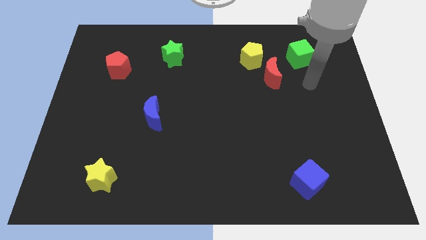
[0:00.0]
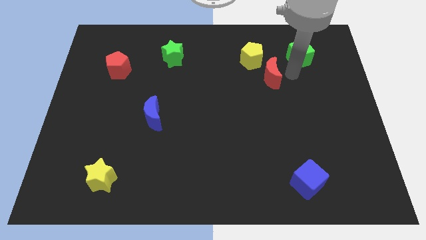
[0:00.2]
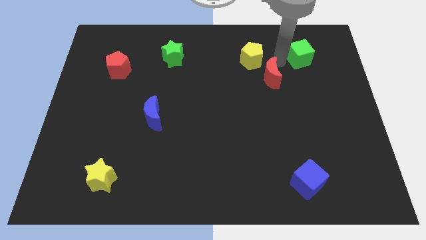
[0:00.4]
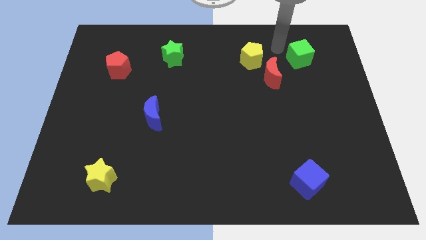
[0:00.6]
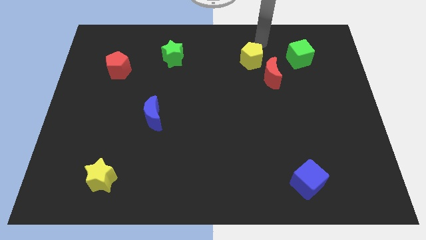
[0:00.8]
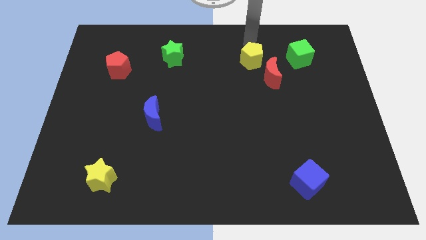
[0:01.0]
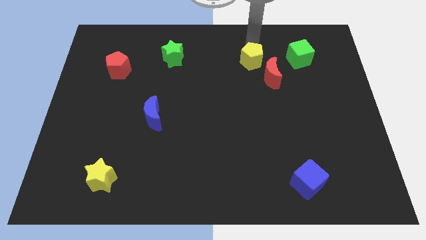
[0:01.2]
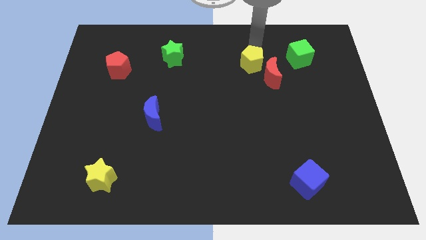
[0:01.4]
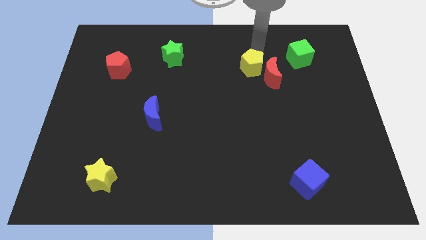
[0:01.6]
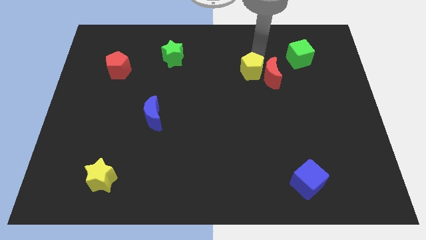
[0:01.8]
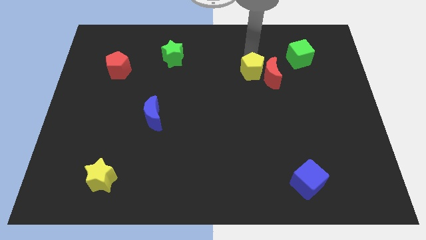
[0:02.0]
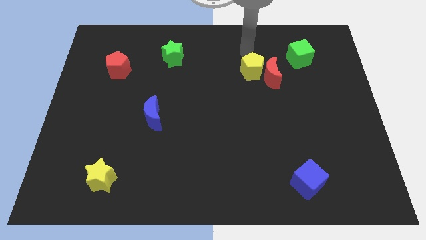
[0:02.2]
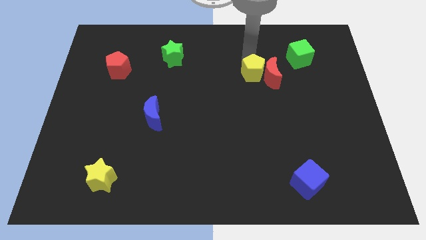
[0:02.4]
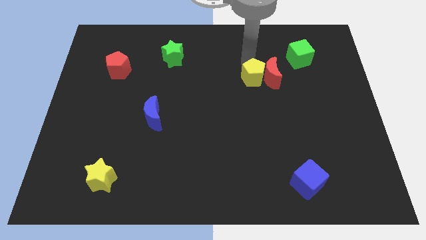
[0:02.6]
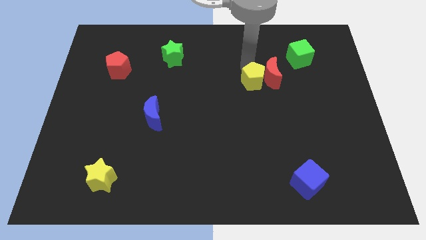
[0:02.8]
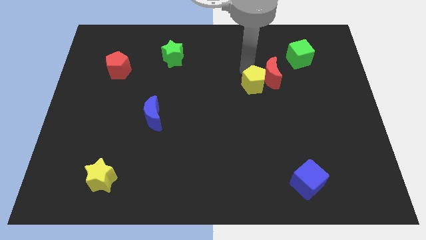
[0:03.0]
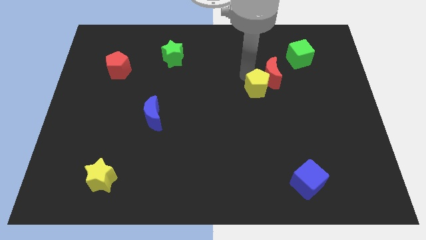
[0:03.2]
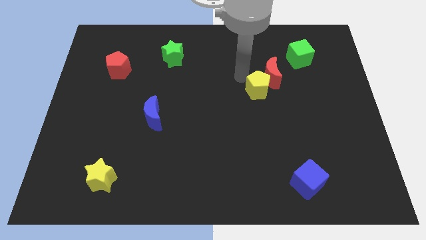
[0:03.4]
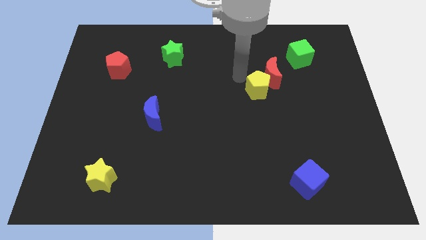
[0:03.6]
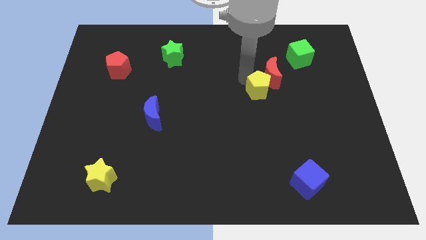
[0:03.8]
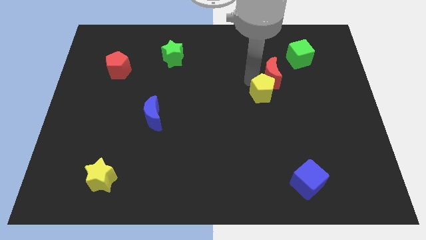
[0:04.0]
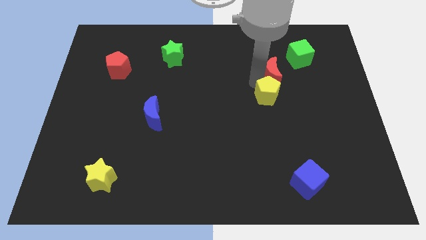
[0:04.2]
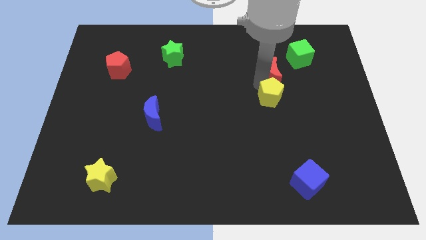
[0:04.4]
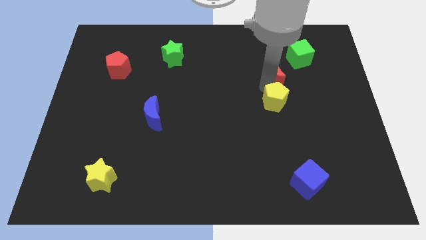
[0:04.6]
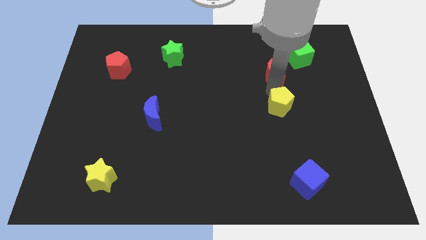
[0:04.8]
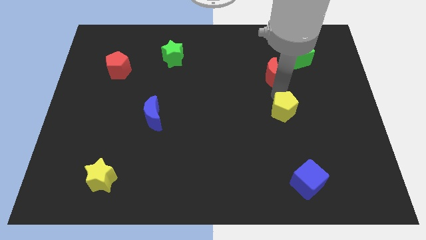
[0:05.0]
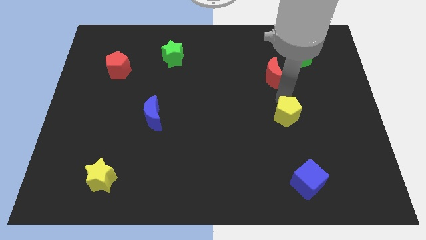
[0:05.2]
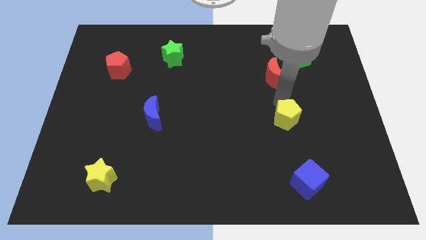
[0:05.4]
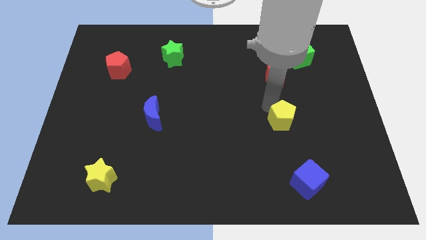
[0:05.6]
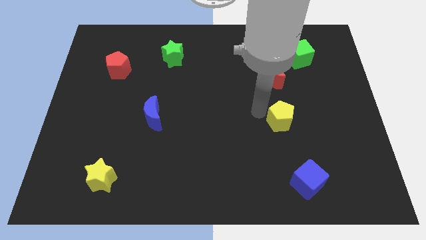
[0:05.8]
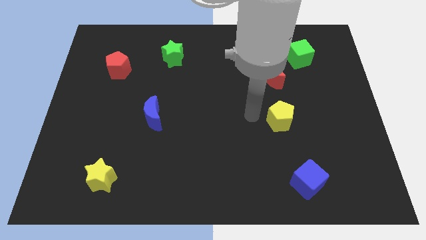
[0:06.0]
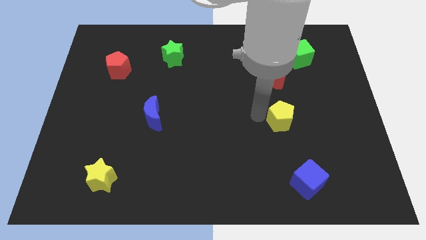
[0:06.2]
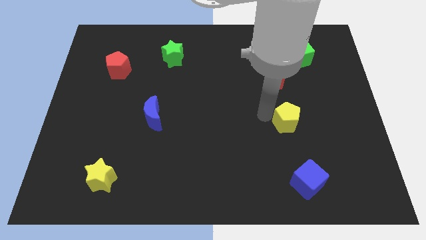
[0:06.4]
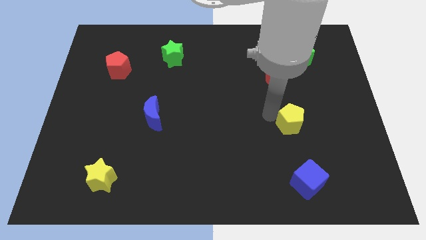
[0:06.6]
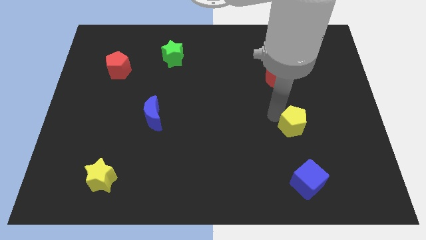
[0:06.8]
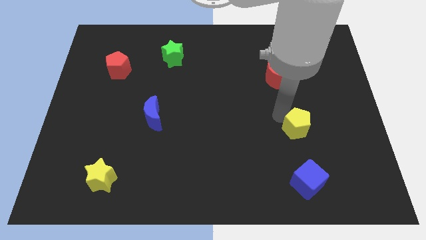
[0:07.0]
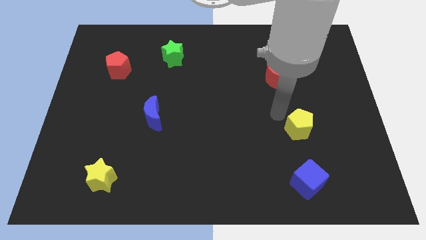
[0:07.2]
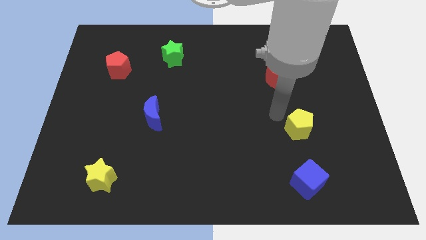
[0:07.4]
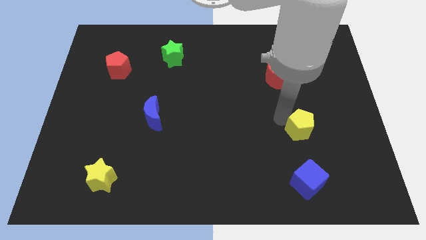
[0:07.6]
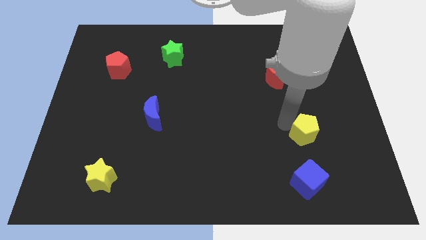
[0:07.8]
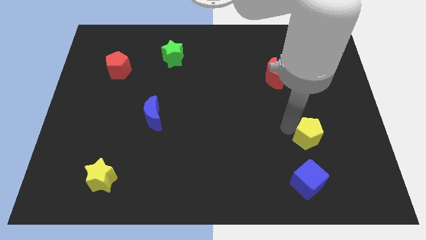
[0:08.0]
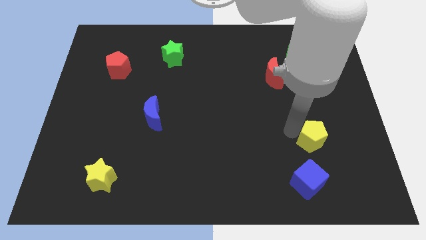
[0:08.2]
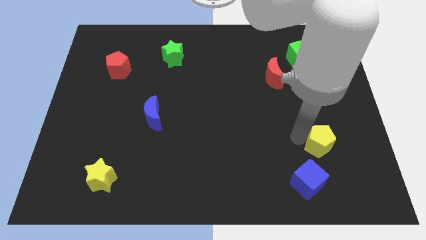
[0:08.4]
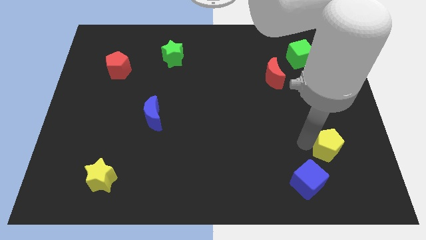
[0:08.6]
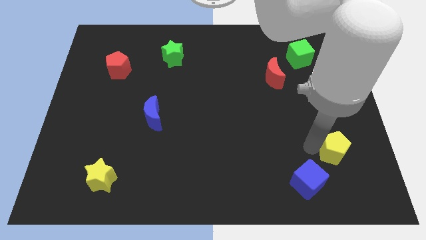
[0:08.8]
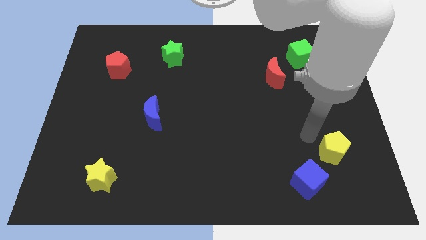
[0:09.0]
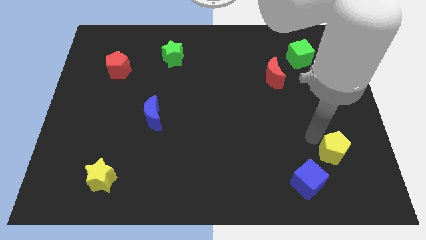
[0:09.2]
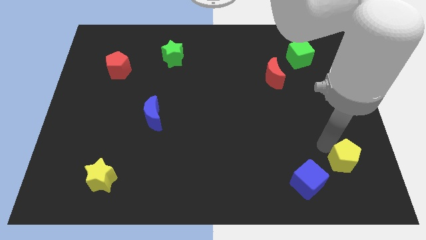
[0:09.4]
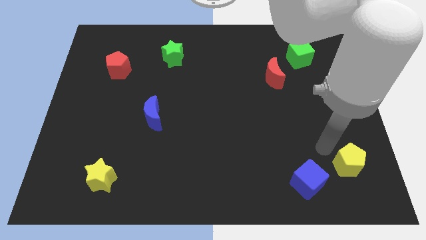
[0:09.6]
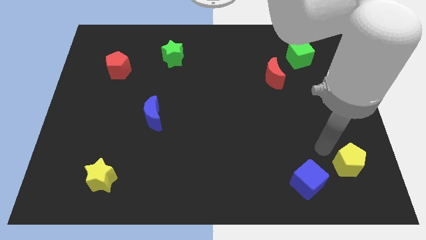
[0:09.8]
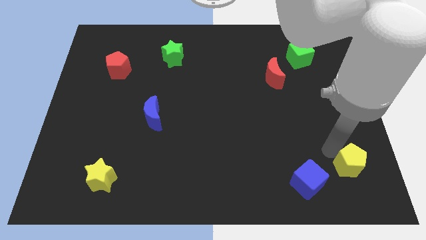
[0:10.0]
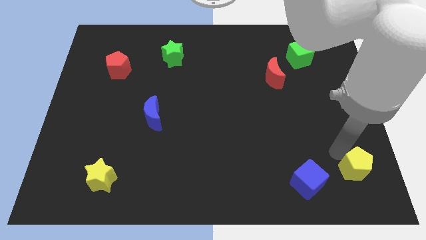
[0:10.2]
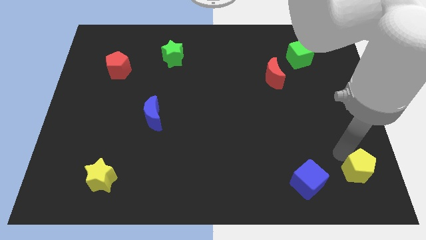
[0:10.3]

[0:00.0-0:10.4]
slide the yellow pentagon to the bottom right corner

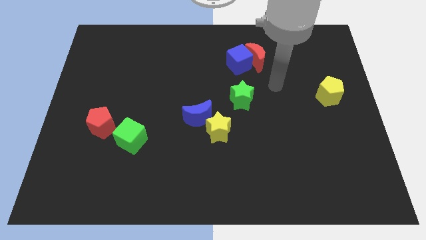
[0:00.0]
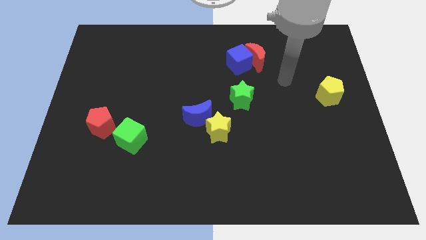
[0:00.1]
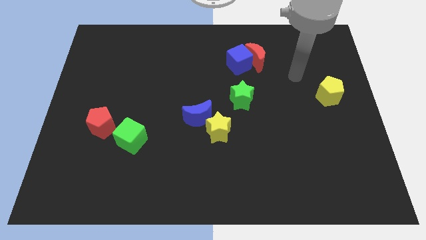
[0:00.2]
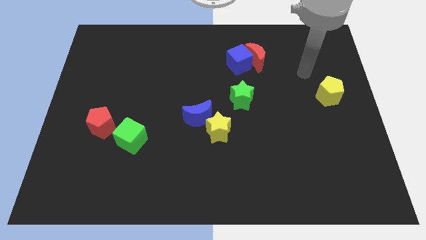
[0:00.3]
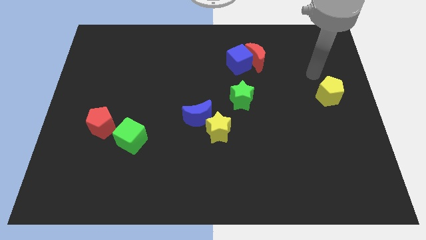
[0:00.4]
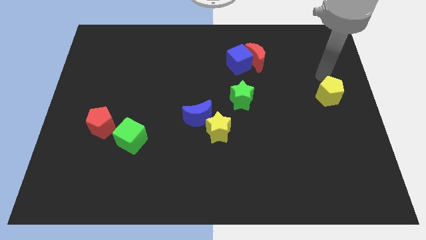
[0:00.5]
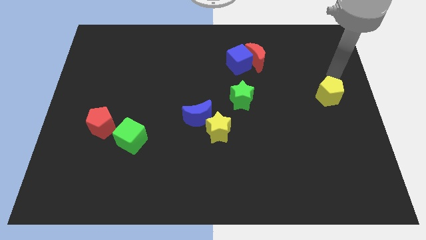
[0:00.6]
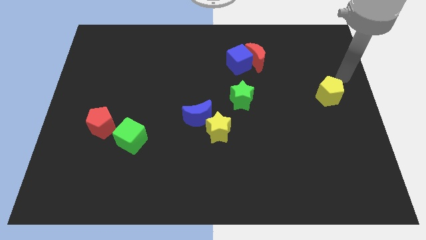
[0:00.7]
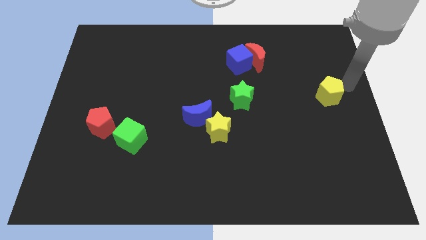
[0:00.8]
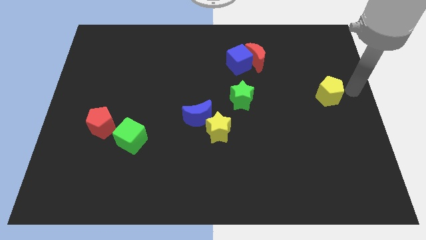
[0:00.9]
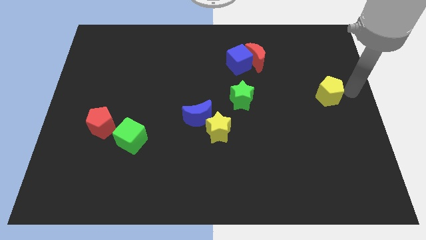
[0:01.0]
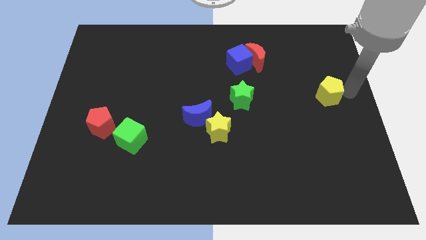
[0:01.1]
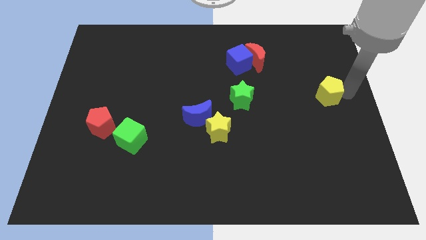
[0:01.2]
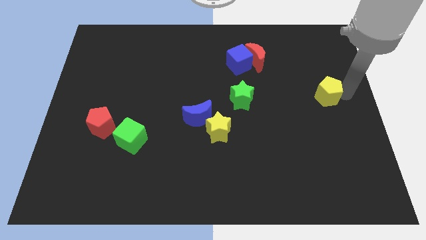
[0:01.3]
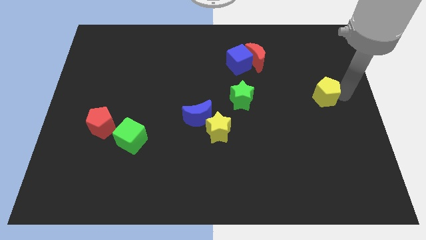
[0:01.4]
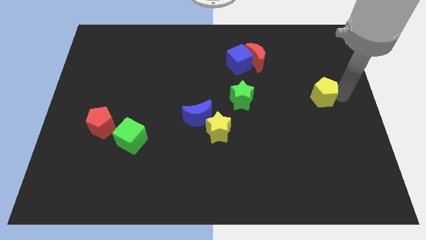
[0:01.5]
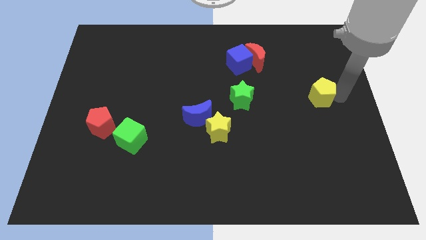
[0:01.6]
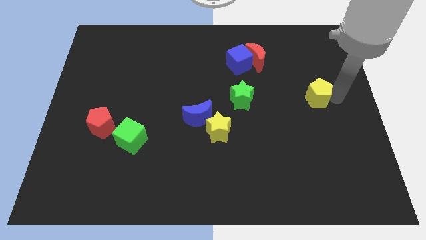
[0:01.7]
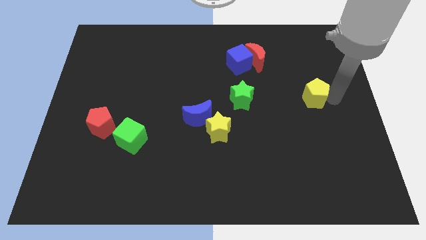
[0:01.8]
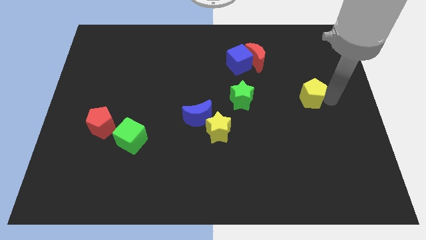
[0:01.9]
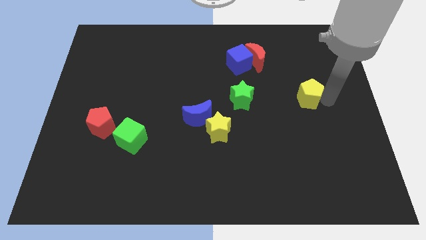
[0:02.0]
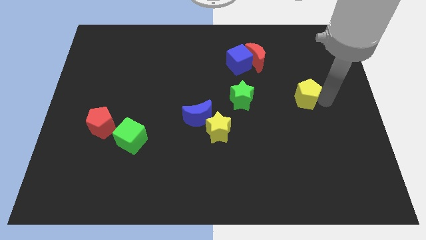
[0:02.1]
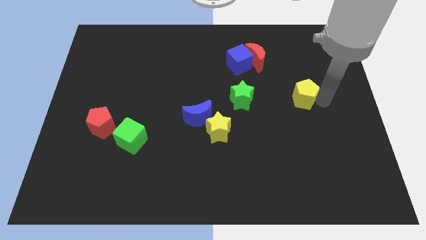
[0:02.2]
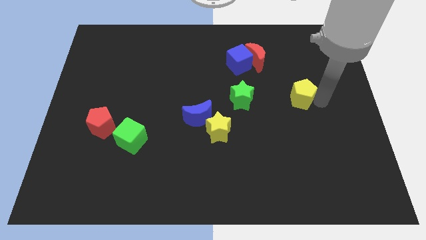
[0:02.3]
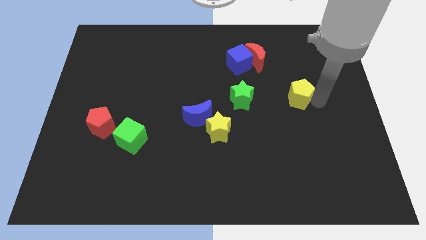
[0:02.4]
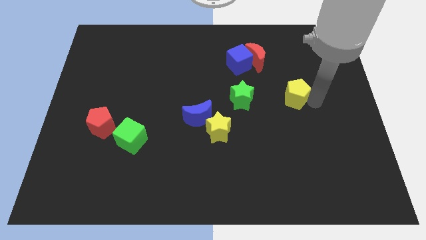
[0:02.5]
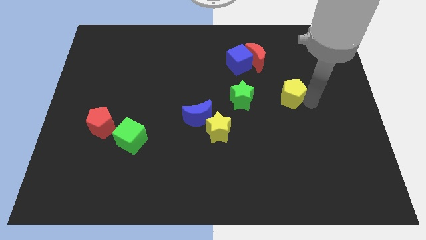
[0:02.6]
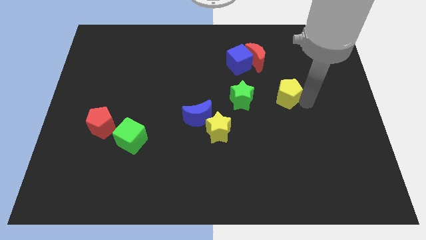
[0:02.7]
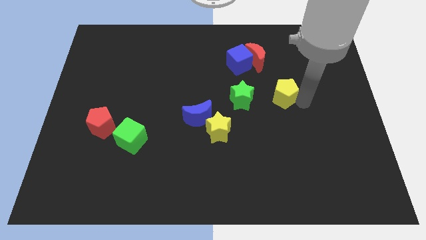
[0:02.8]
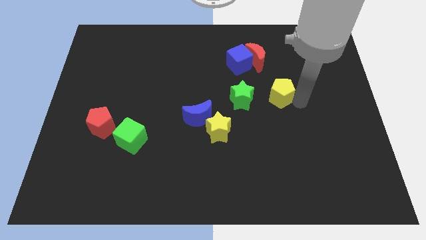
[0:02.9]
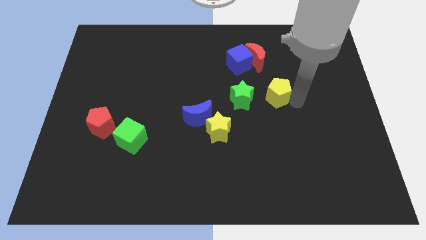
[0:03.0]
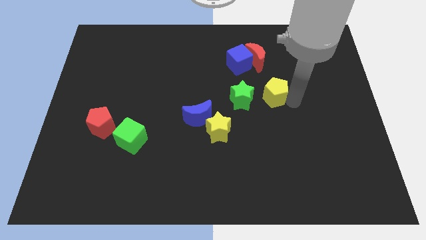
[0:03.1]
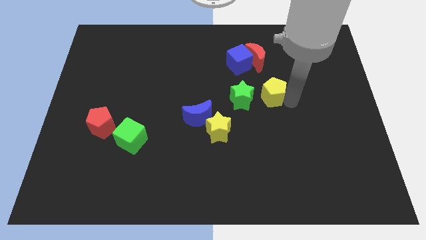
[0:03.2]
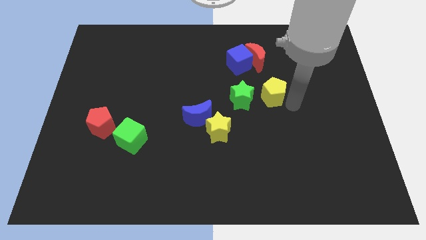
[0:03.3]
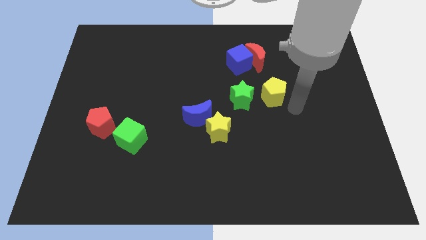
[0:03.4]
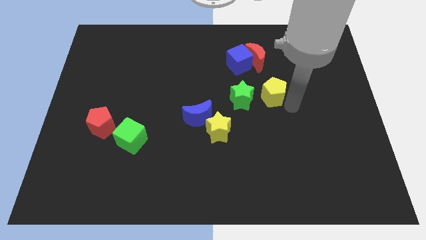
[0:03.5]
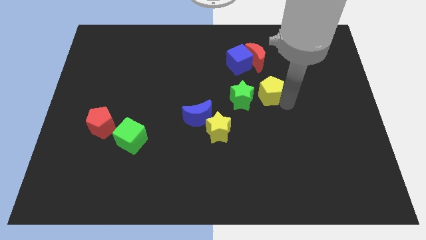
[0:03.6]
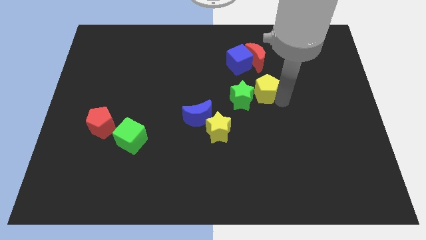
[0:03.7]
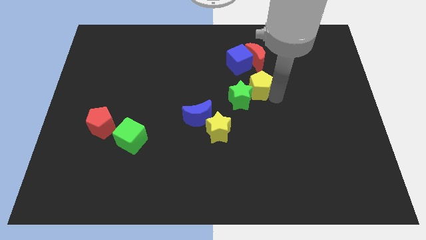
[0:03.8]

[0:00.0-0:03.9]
put the yellow pentagon to the center of the board
